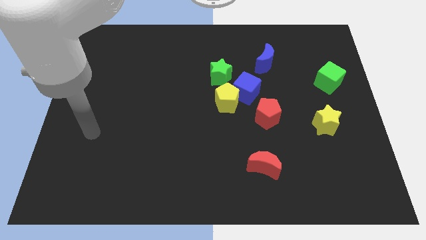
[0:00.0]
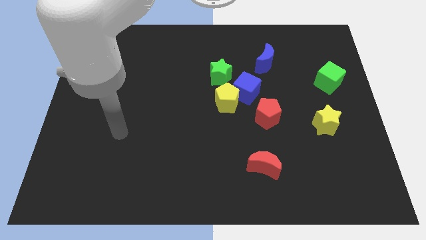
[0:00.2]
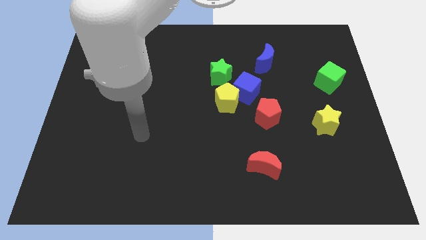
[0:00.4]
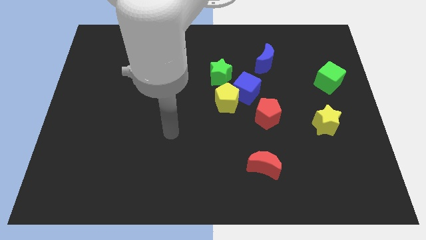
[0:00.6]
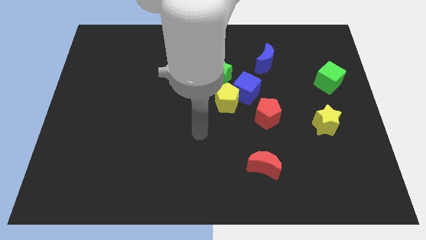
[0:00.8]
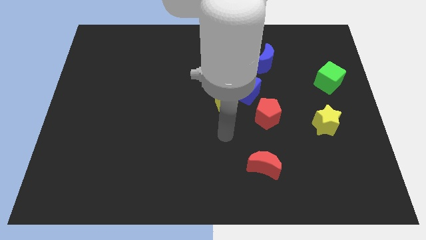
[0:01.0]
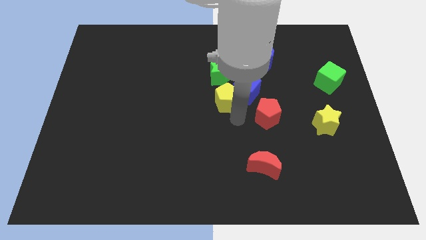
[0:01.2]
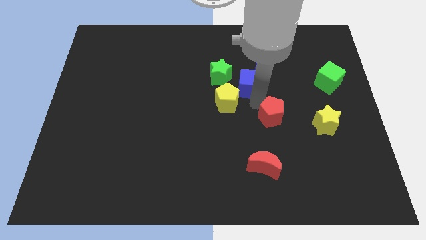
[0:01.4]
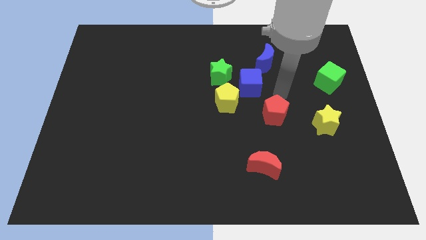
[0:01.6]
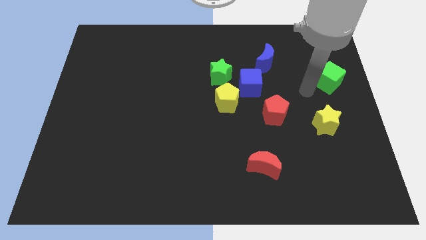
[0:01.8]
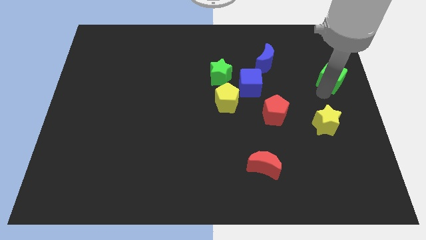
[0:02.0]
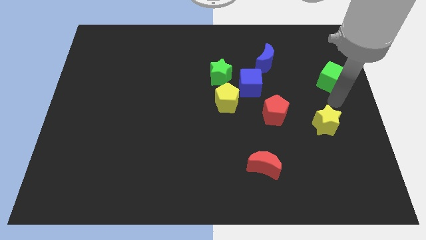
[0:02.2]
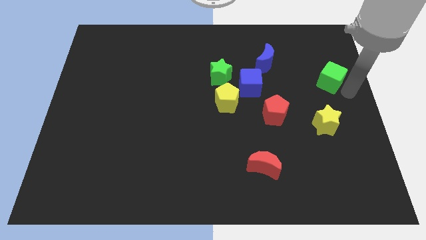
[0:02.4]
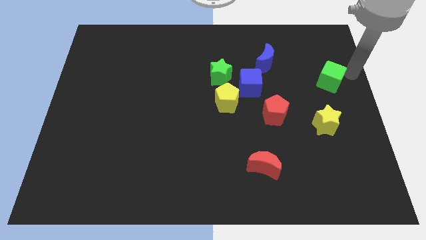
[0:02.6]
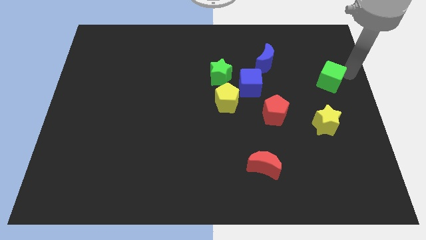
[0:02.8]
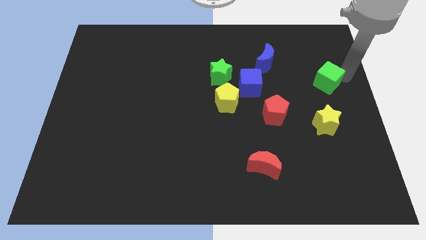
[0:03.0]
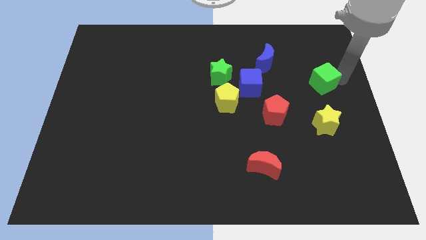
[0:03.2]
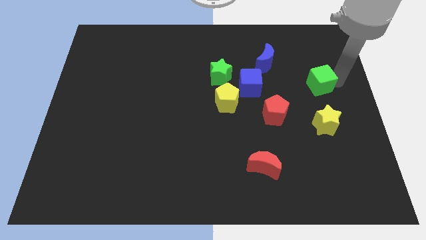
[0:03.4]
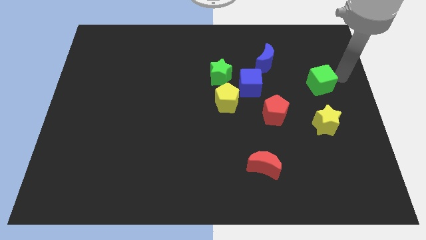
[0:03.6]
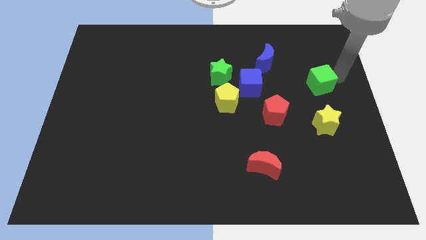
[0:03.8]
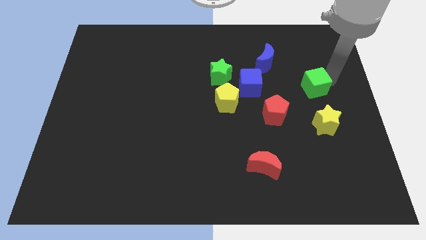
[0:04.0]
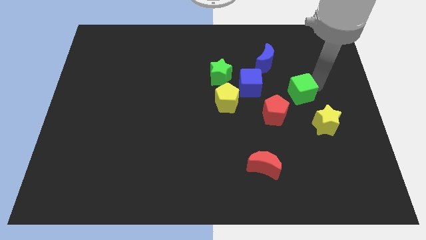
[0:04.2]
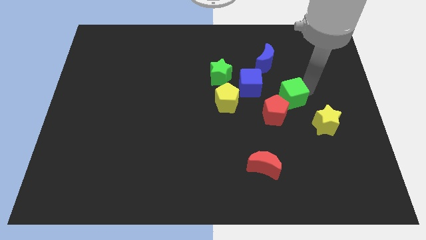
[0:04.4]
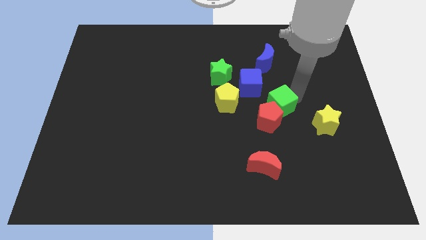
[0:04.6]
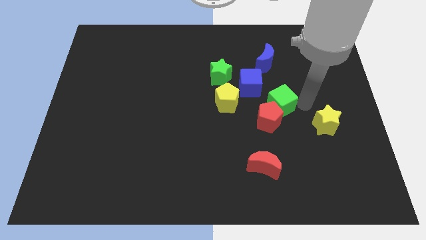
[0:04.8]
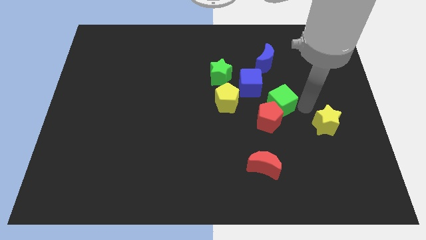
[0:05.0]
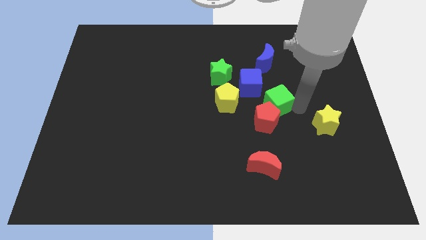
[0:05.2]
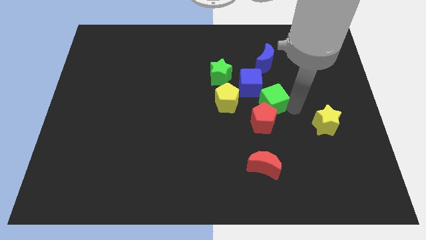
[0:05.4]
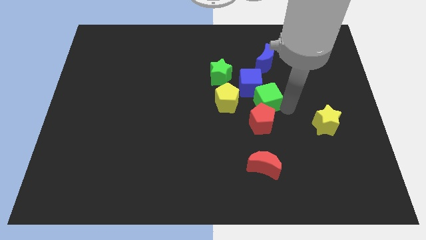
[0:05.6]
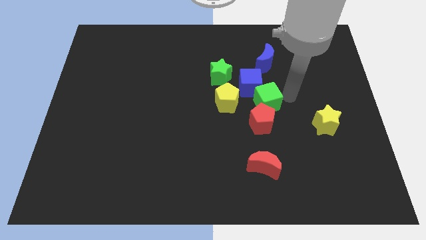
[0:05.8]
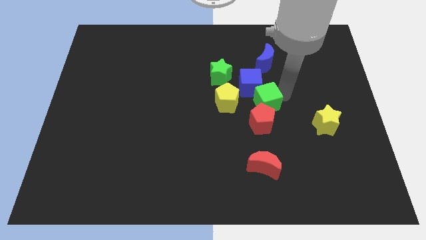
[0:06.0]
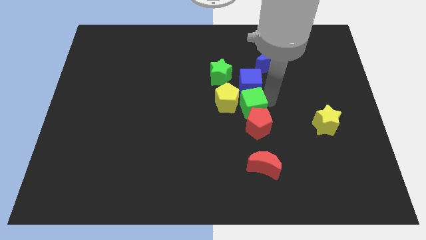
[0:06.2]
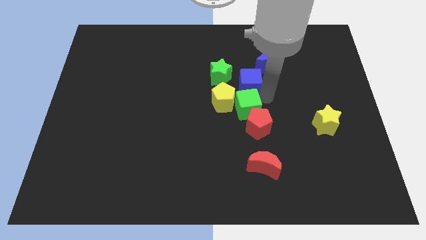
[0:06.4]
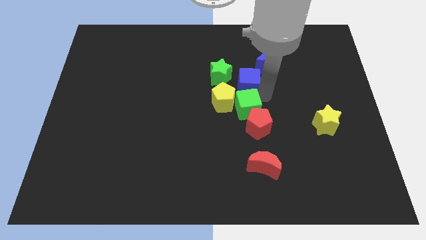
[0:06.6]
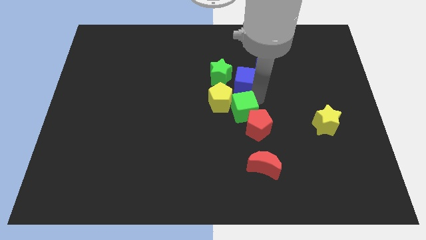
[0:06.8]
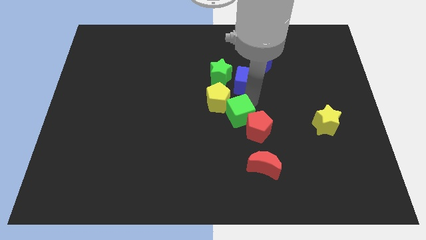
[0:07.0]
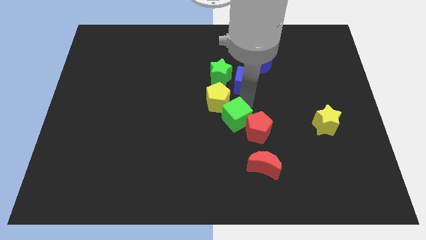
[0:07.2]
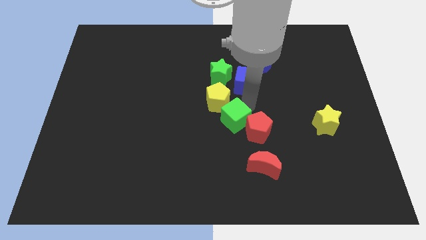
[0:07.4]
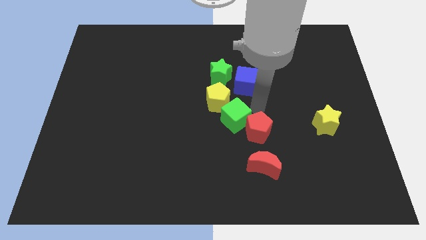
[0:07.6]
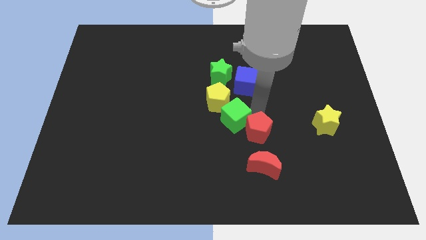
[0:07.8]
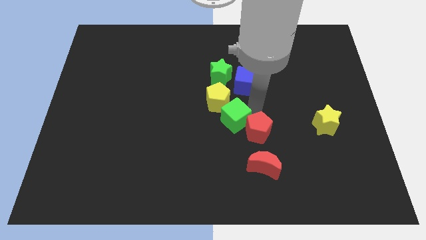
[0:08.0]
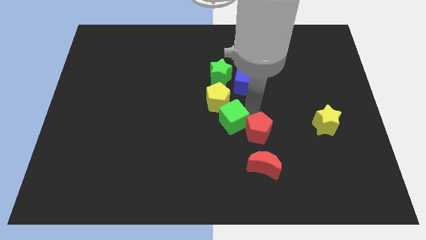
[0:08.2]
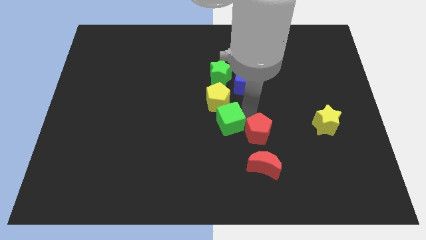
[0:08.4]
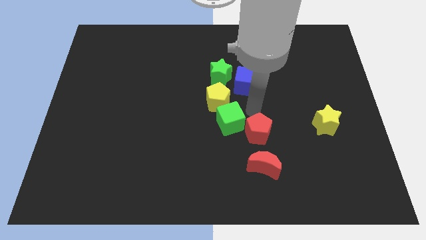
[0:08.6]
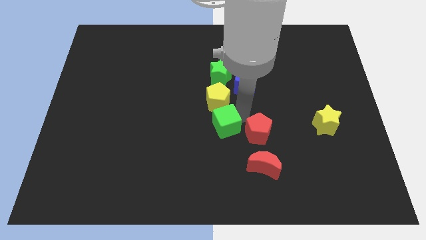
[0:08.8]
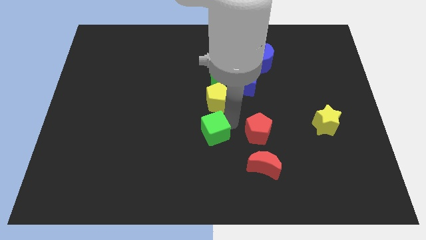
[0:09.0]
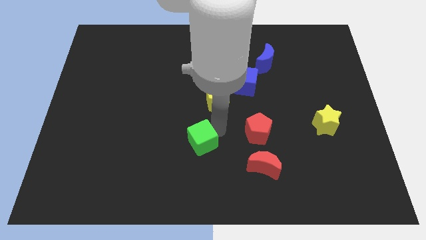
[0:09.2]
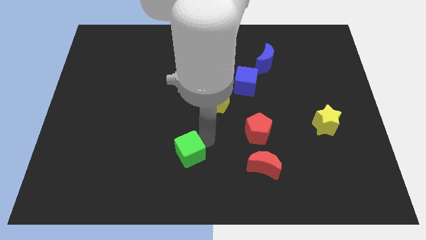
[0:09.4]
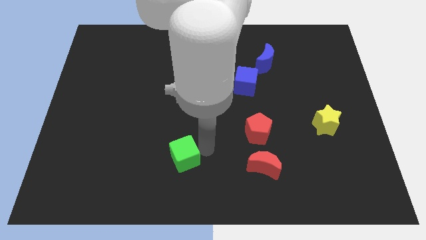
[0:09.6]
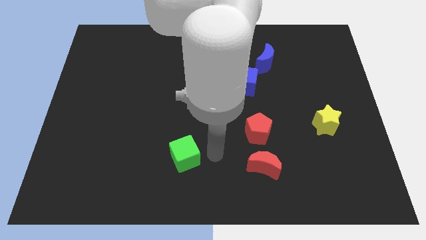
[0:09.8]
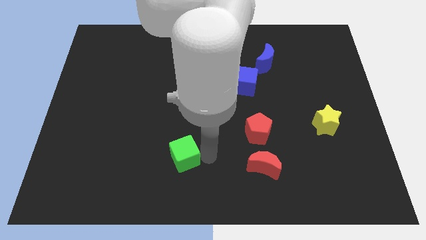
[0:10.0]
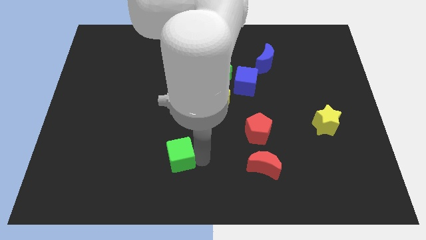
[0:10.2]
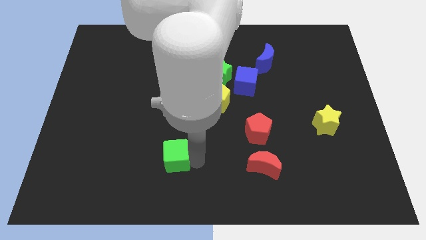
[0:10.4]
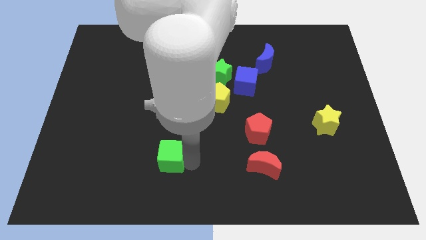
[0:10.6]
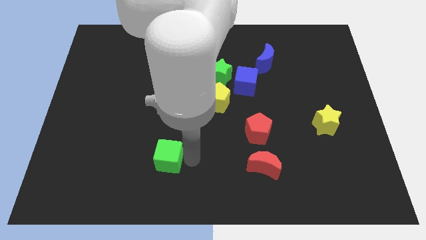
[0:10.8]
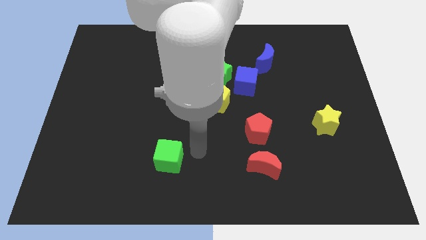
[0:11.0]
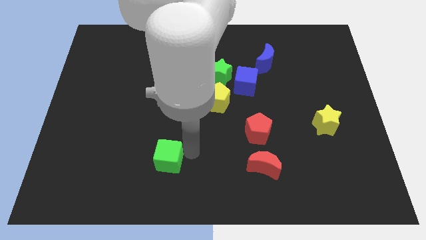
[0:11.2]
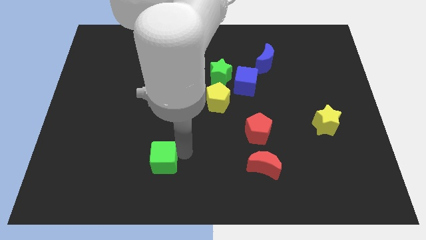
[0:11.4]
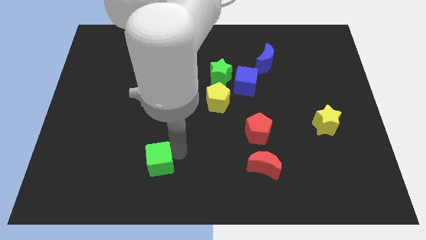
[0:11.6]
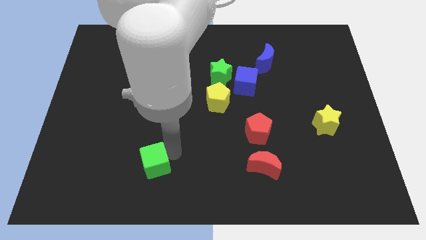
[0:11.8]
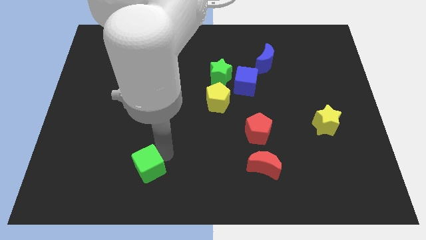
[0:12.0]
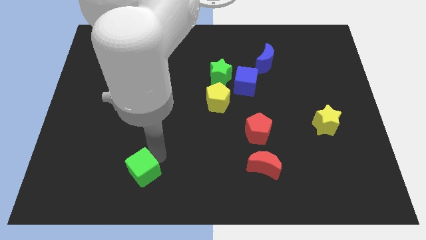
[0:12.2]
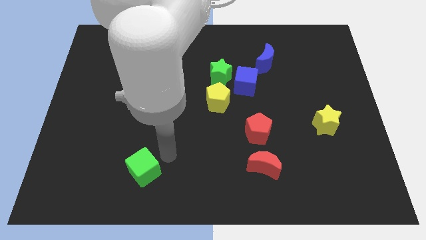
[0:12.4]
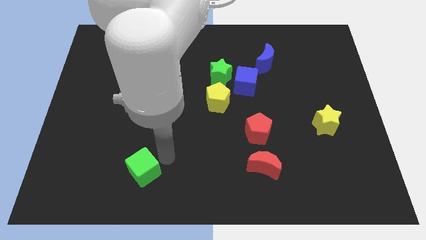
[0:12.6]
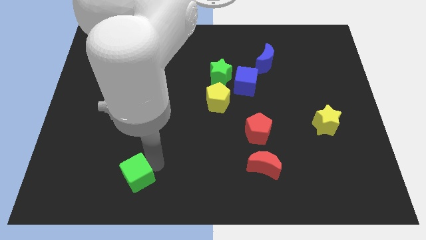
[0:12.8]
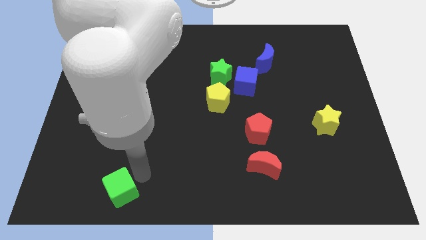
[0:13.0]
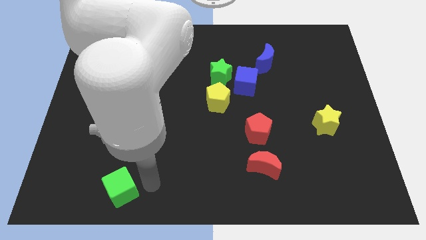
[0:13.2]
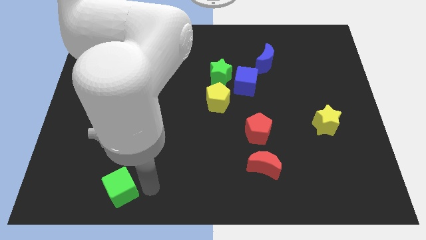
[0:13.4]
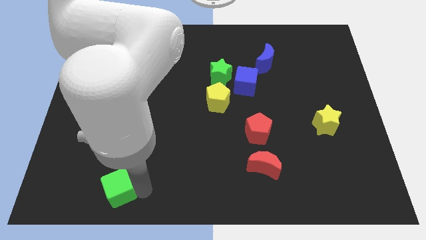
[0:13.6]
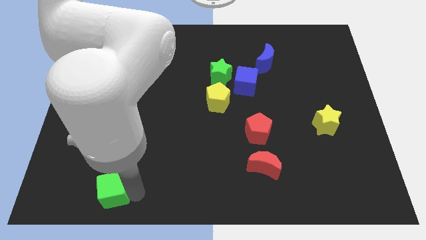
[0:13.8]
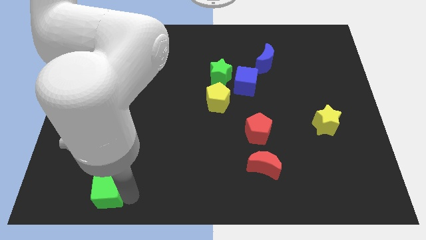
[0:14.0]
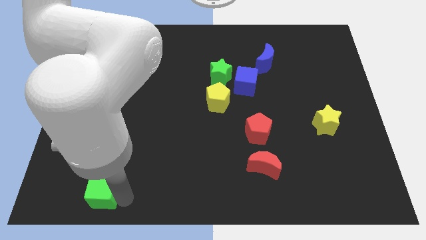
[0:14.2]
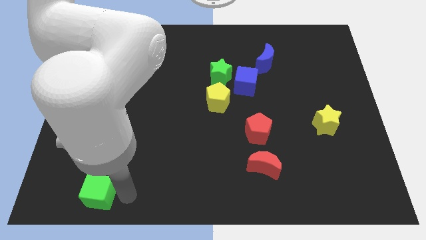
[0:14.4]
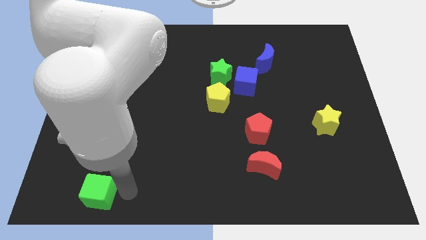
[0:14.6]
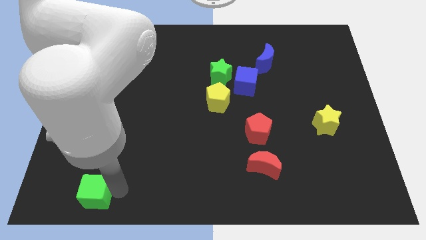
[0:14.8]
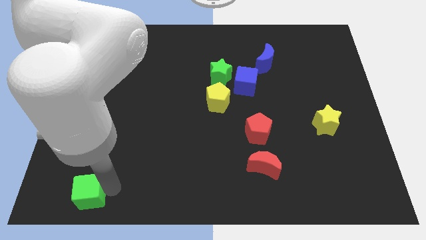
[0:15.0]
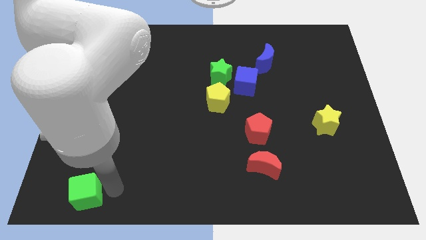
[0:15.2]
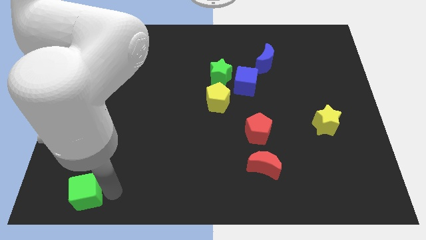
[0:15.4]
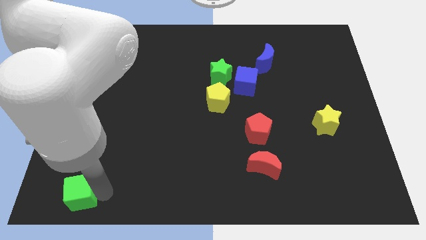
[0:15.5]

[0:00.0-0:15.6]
put the green cube to the lower left corner
